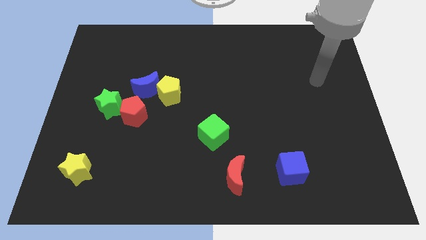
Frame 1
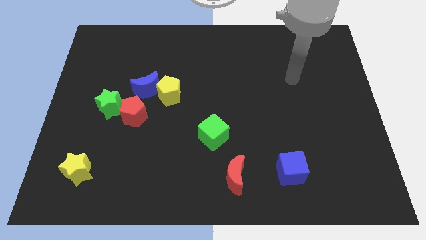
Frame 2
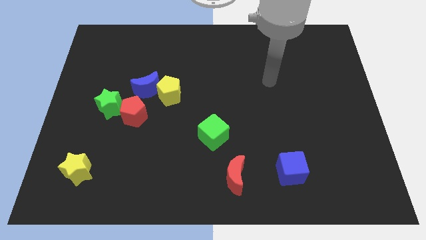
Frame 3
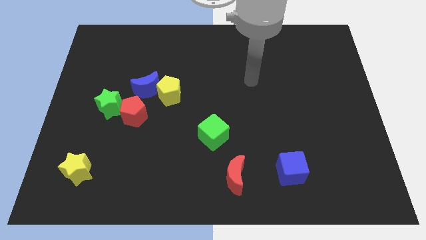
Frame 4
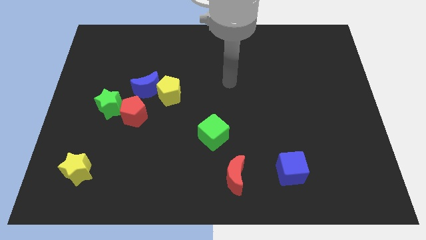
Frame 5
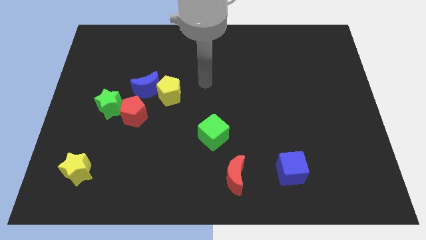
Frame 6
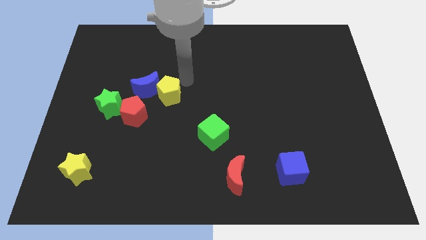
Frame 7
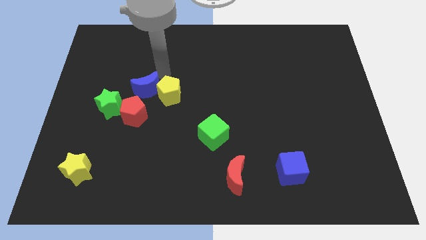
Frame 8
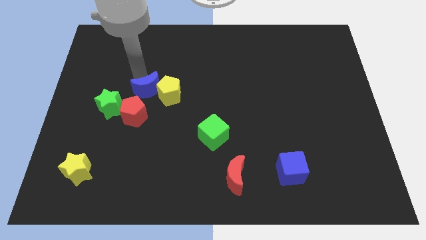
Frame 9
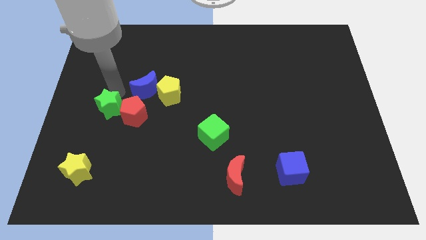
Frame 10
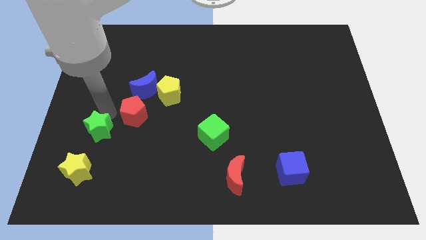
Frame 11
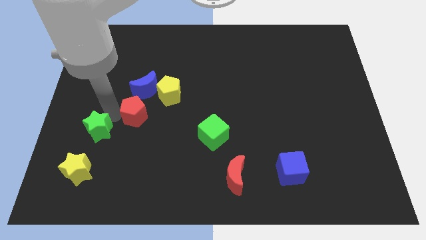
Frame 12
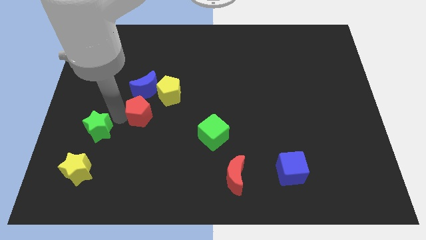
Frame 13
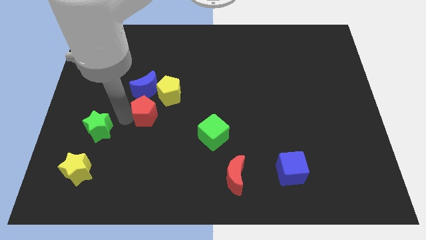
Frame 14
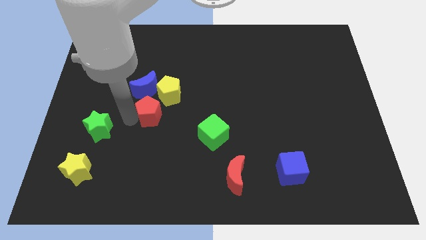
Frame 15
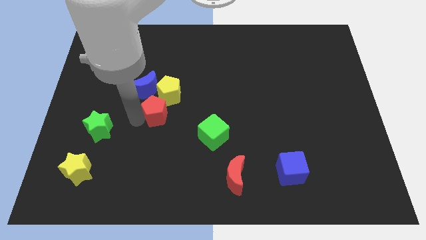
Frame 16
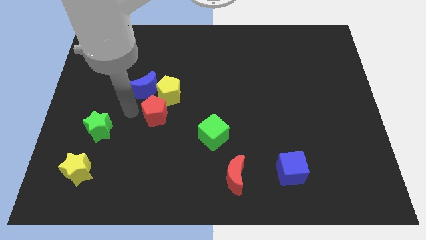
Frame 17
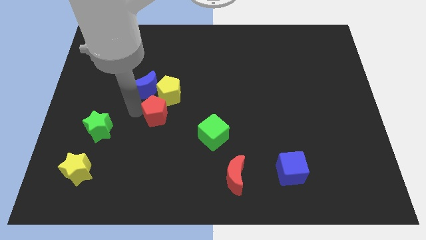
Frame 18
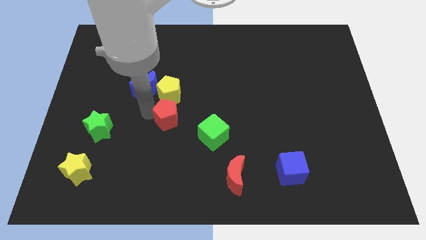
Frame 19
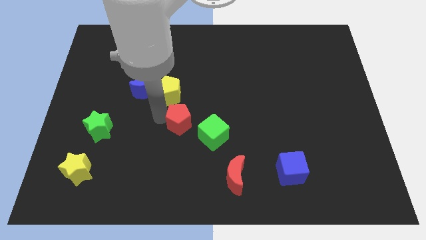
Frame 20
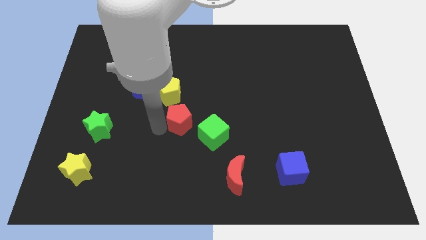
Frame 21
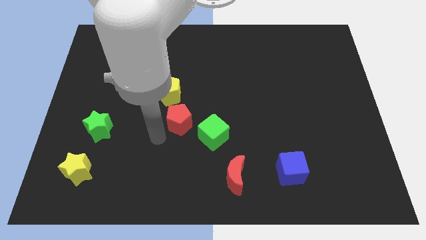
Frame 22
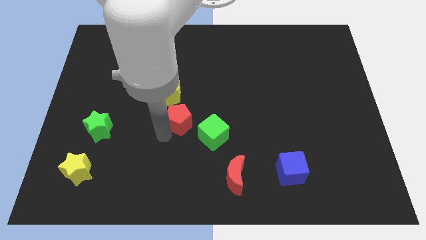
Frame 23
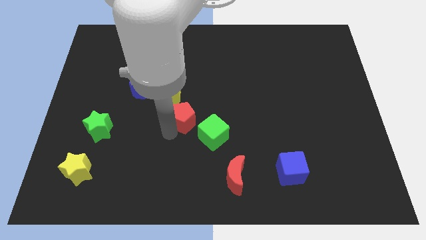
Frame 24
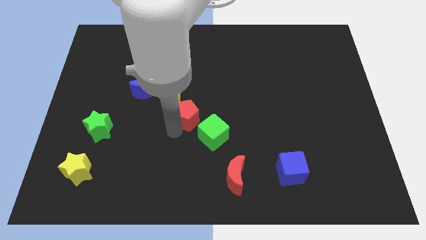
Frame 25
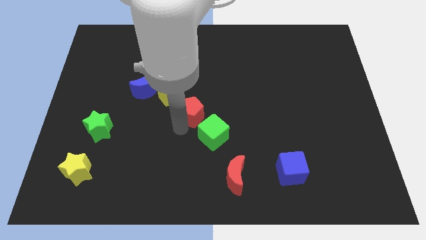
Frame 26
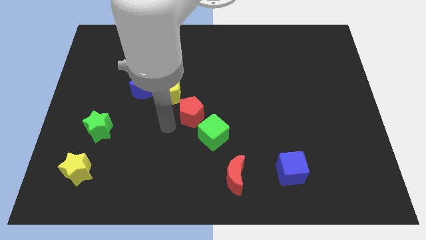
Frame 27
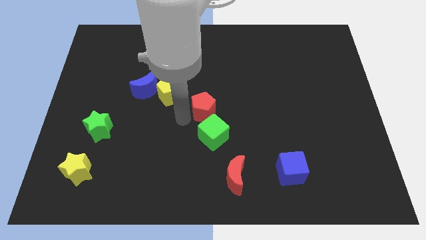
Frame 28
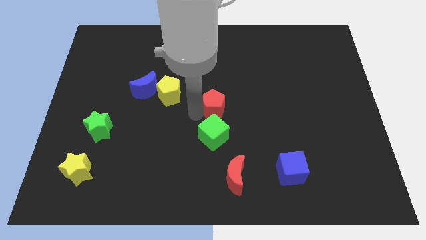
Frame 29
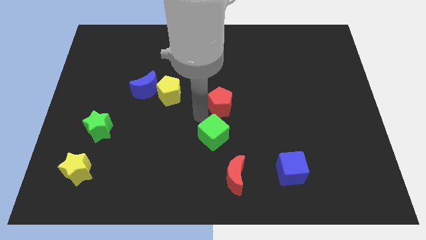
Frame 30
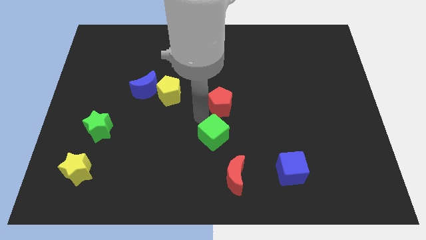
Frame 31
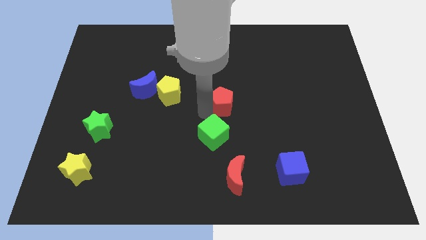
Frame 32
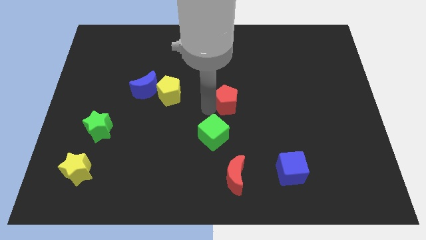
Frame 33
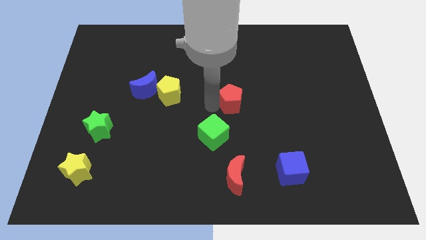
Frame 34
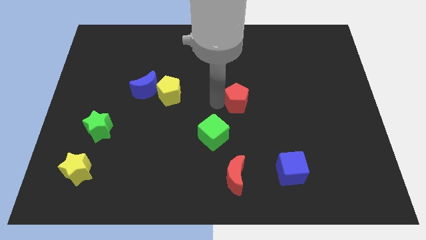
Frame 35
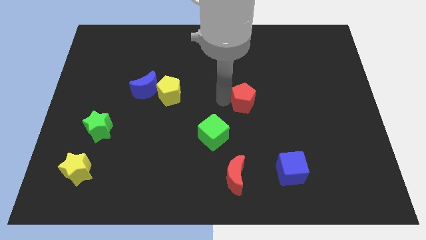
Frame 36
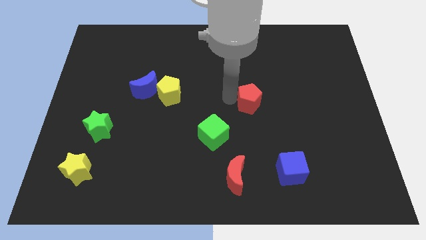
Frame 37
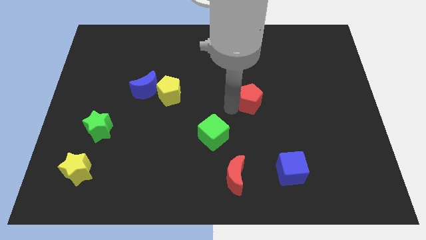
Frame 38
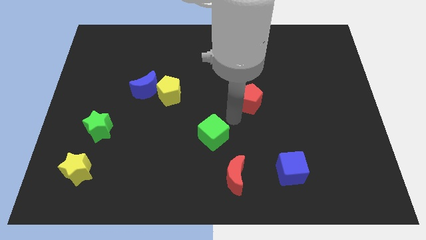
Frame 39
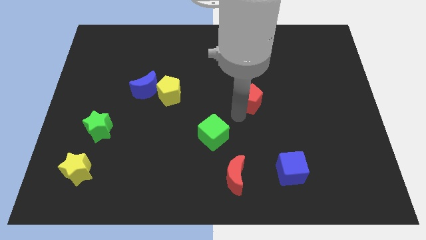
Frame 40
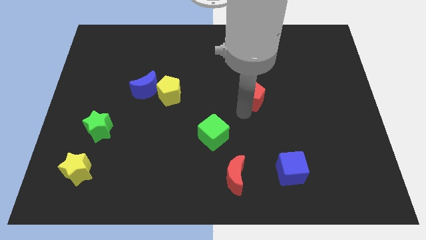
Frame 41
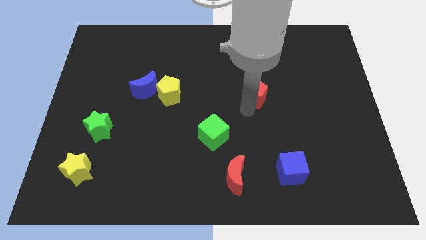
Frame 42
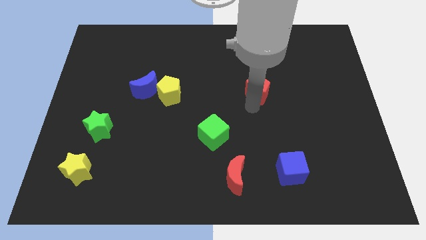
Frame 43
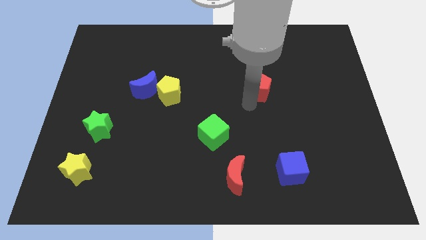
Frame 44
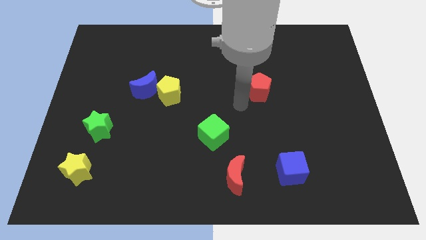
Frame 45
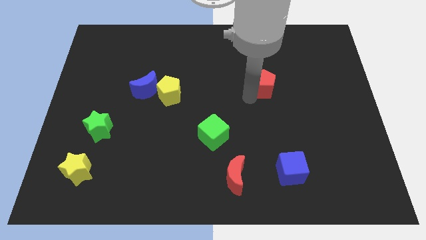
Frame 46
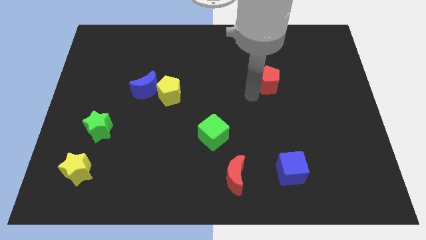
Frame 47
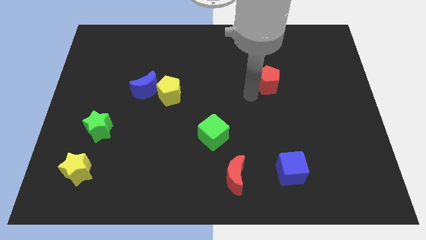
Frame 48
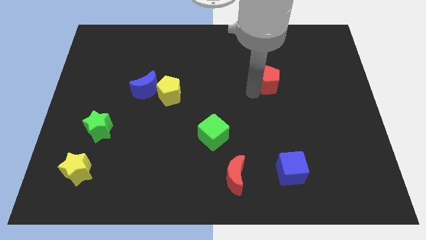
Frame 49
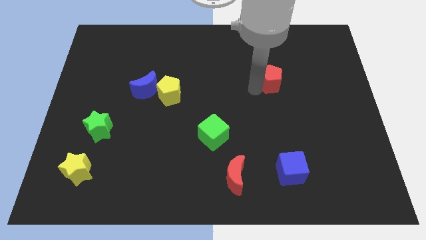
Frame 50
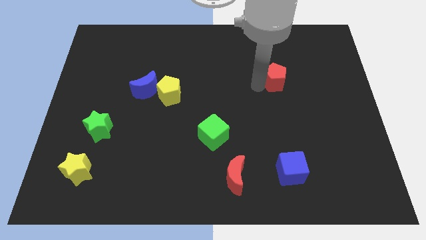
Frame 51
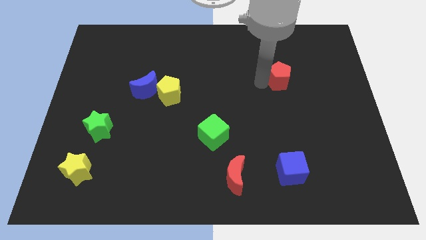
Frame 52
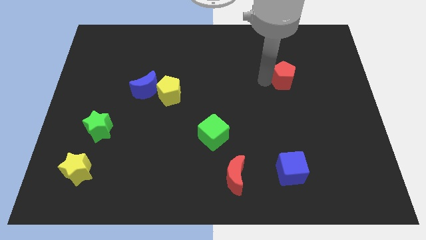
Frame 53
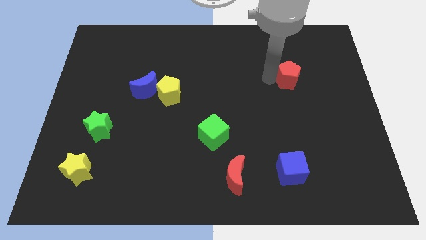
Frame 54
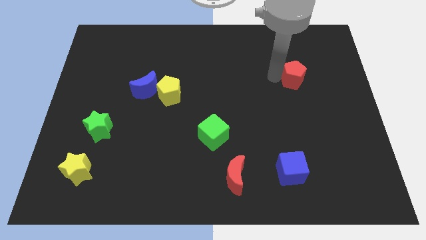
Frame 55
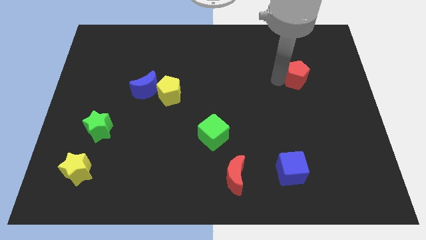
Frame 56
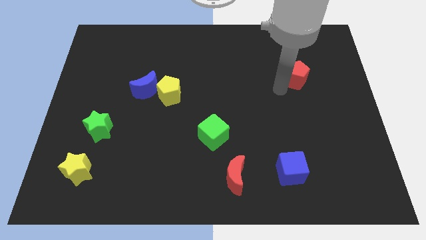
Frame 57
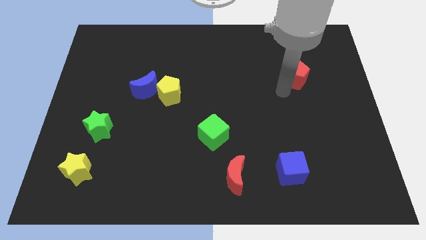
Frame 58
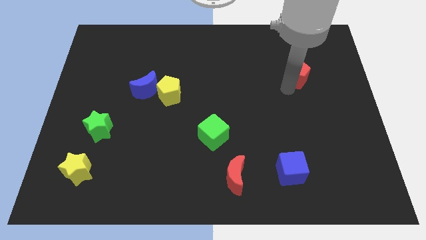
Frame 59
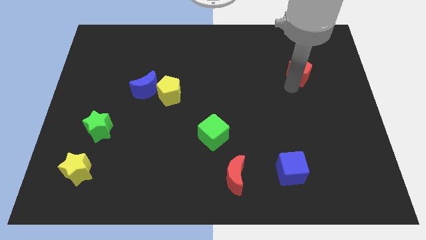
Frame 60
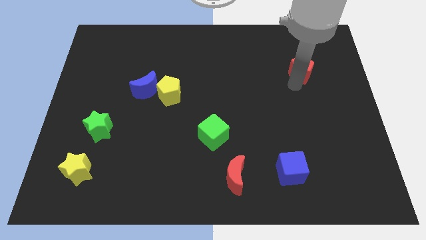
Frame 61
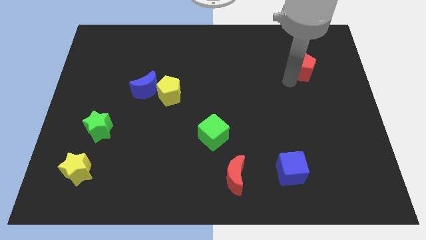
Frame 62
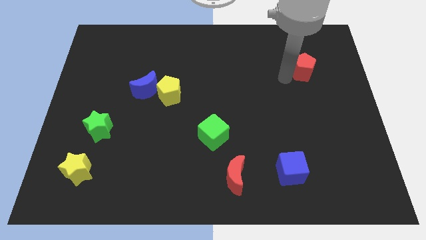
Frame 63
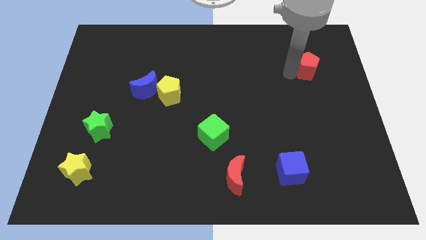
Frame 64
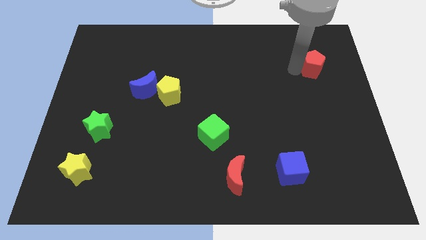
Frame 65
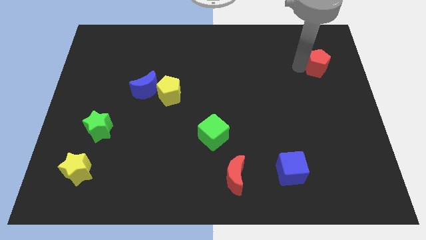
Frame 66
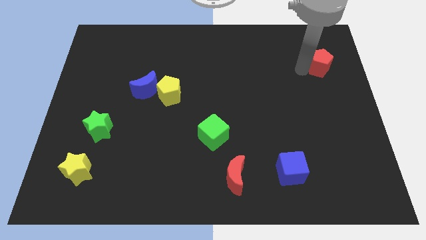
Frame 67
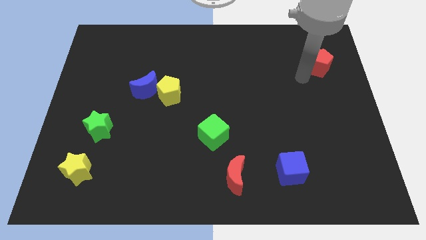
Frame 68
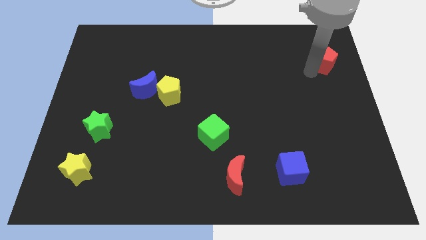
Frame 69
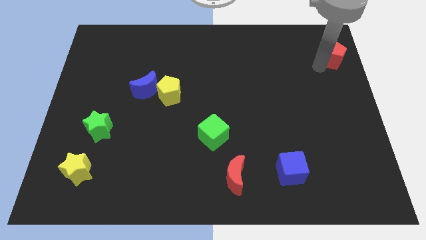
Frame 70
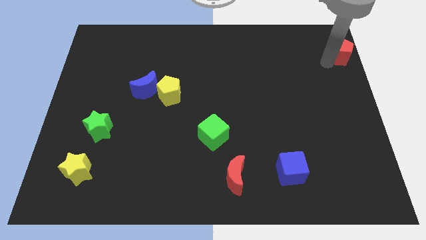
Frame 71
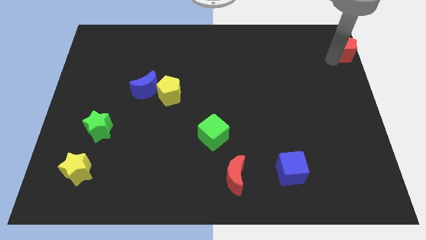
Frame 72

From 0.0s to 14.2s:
push the red pentagon to the top right of the board
